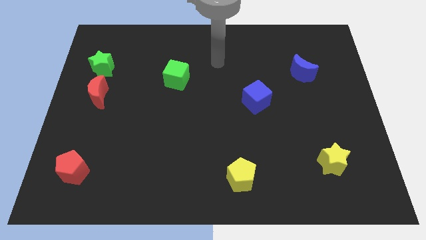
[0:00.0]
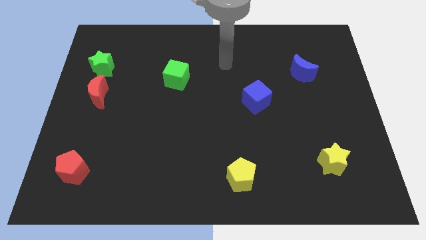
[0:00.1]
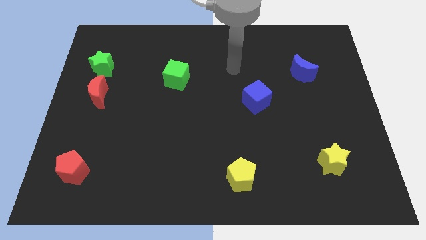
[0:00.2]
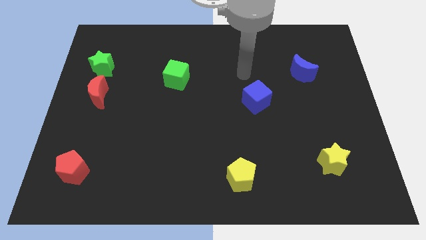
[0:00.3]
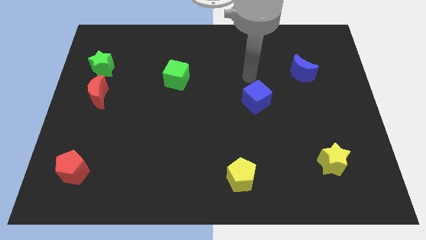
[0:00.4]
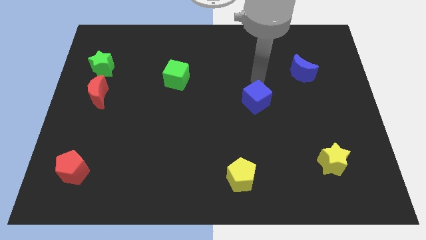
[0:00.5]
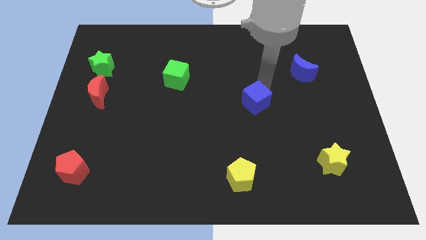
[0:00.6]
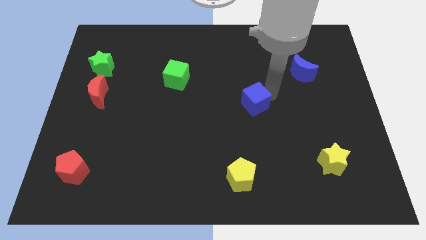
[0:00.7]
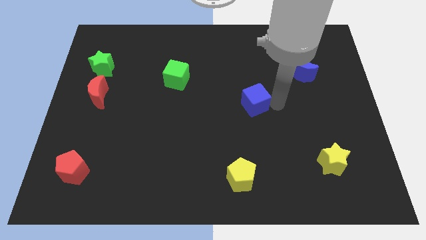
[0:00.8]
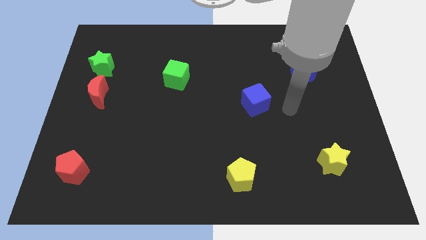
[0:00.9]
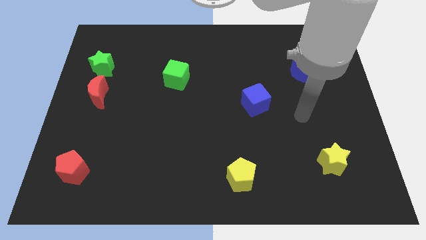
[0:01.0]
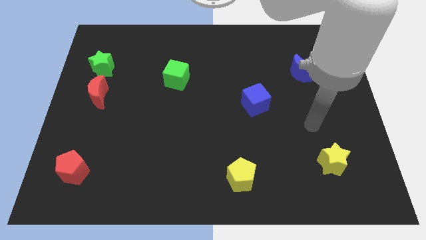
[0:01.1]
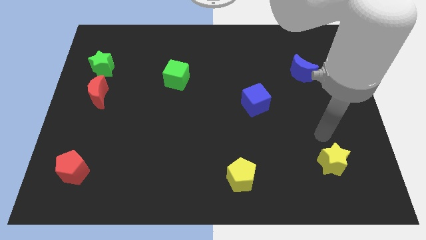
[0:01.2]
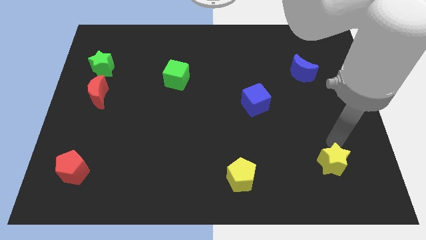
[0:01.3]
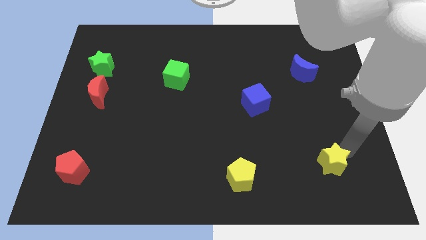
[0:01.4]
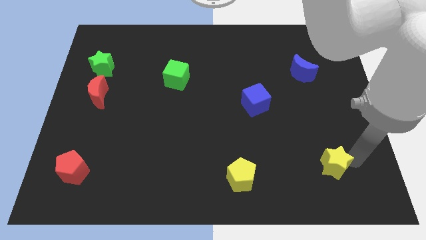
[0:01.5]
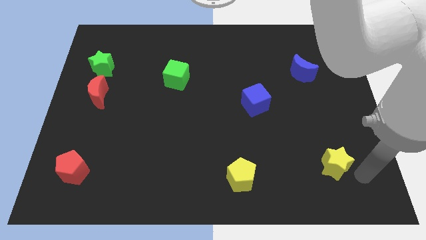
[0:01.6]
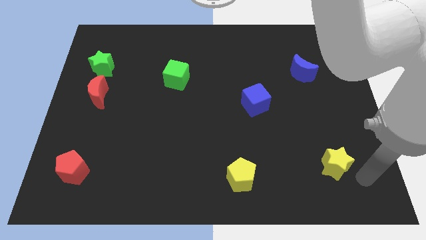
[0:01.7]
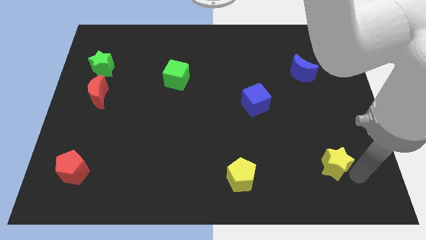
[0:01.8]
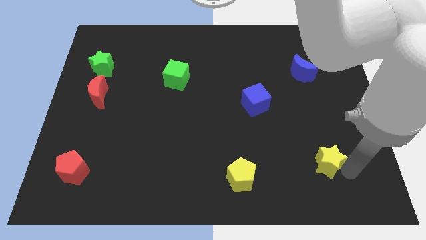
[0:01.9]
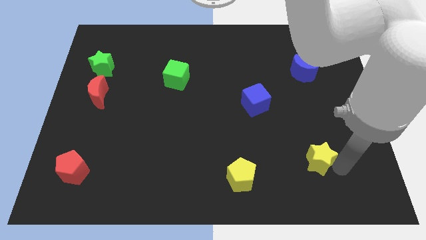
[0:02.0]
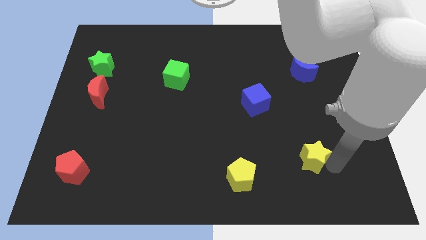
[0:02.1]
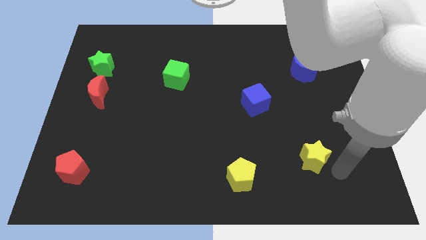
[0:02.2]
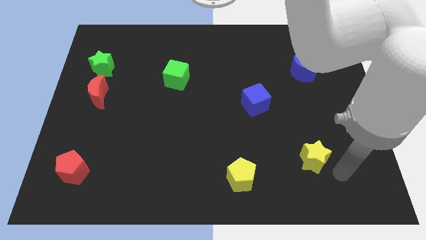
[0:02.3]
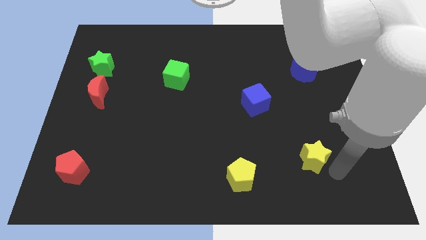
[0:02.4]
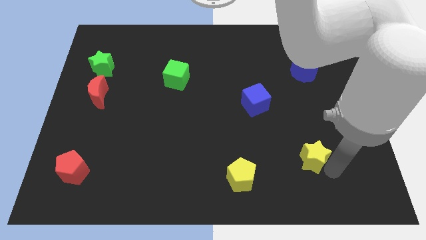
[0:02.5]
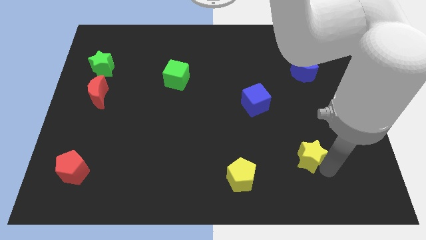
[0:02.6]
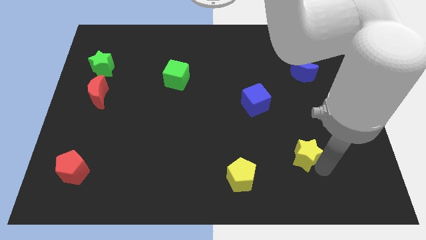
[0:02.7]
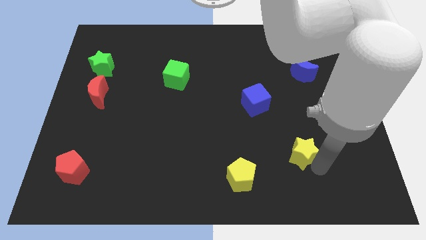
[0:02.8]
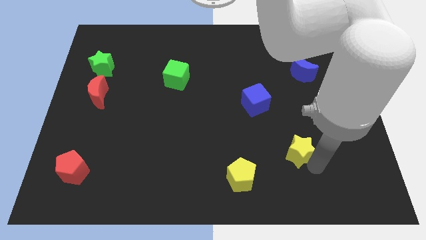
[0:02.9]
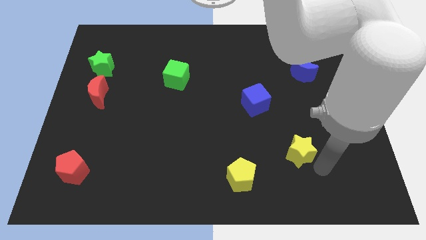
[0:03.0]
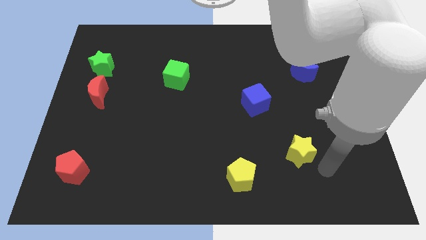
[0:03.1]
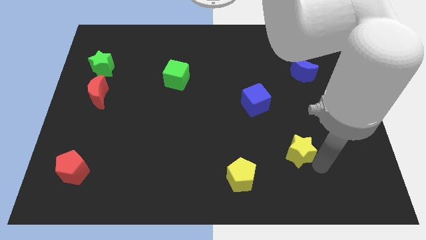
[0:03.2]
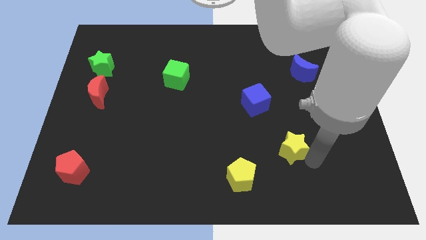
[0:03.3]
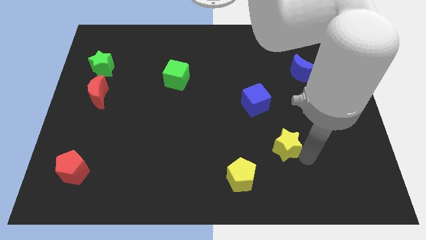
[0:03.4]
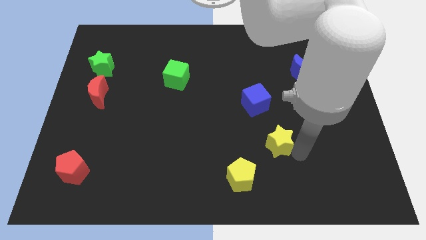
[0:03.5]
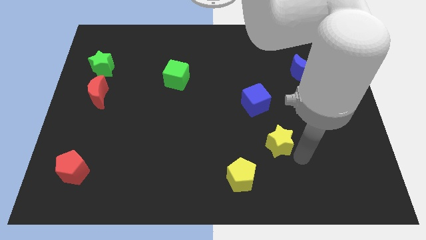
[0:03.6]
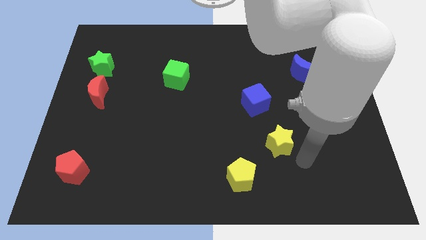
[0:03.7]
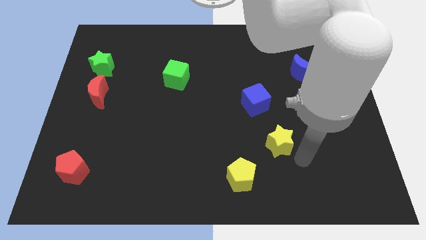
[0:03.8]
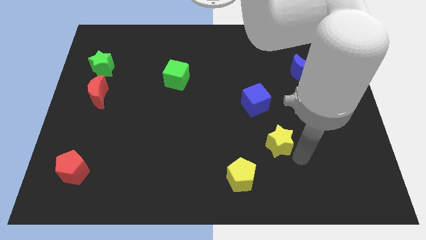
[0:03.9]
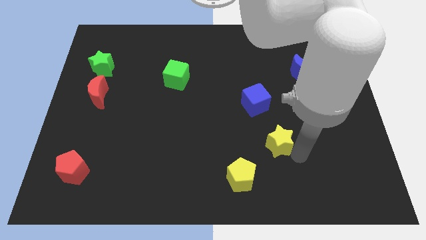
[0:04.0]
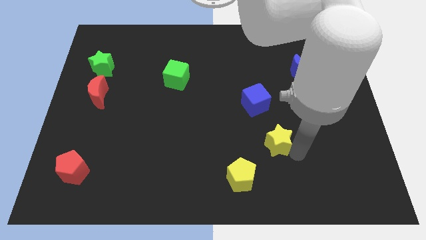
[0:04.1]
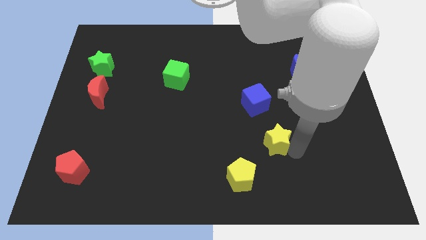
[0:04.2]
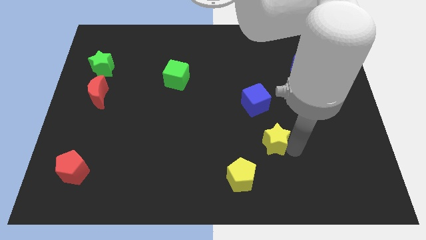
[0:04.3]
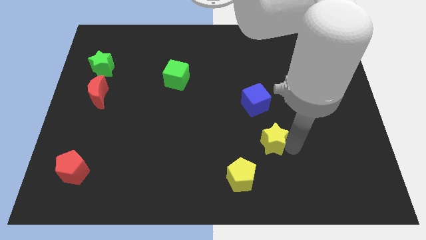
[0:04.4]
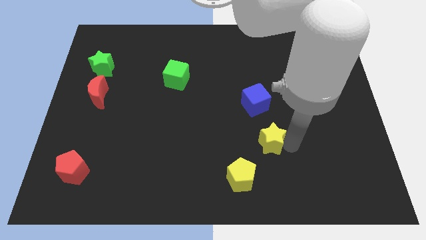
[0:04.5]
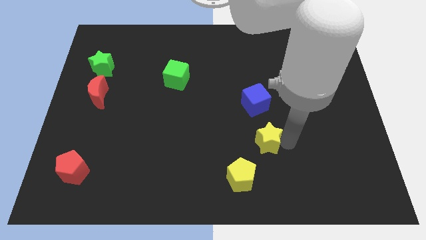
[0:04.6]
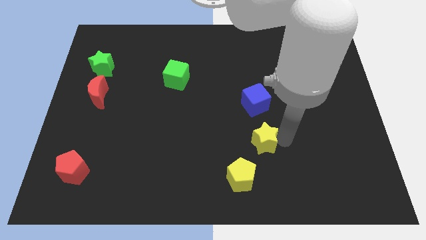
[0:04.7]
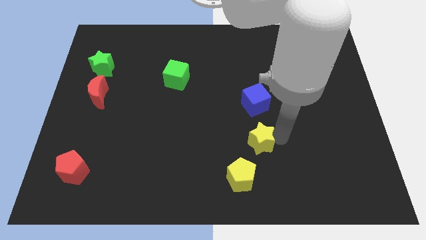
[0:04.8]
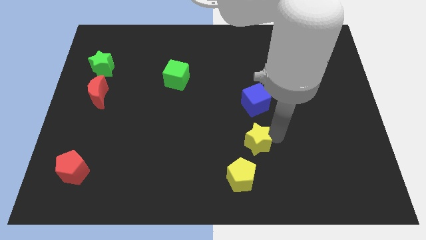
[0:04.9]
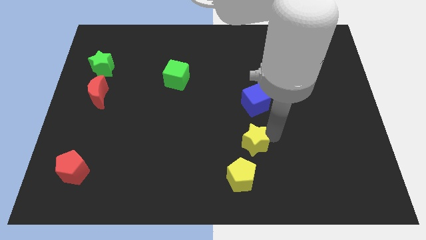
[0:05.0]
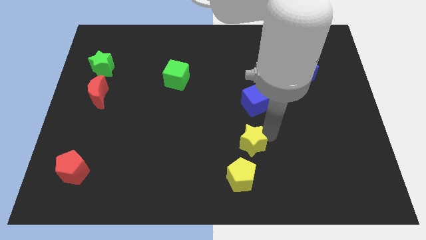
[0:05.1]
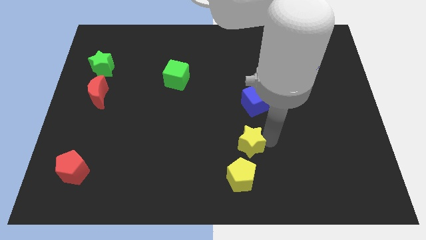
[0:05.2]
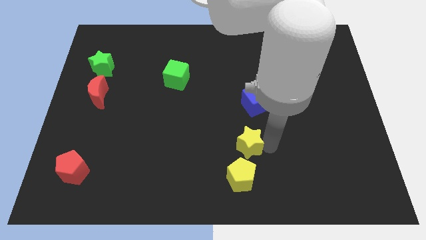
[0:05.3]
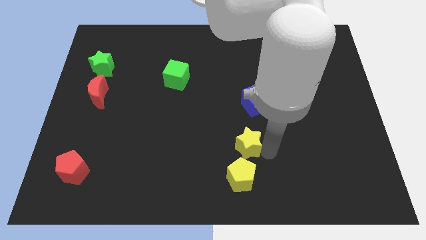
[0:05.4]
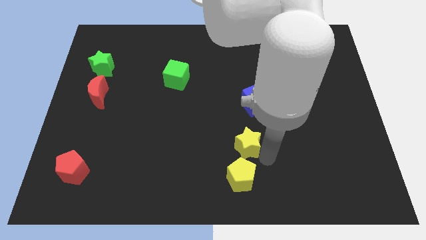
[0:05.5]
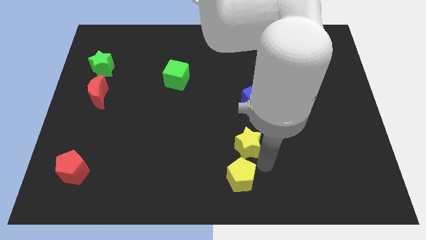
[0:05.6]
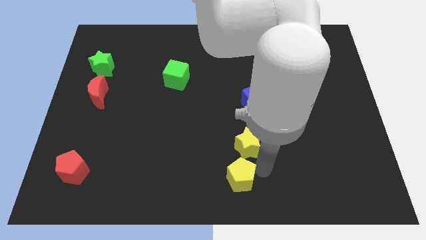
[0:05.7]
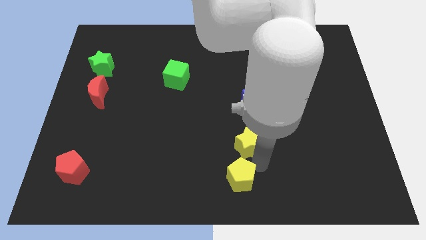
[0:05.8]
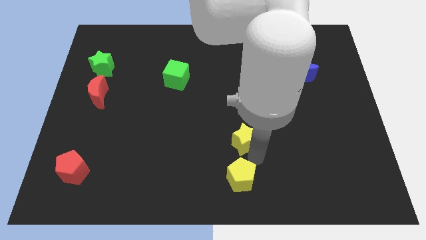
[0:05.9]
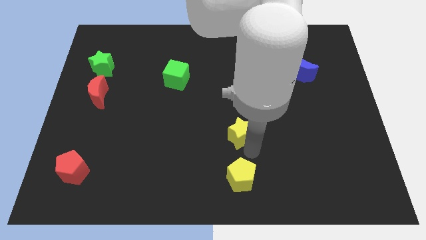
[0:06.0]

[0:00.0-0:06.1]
move the yellow star to the bottom left side of the blue cube

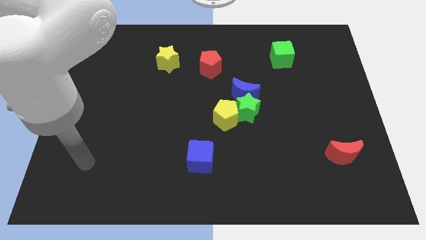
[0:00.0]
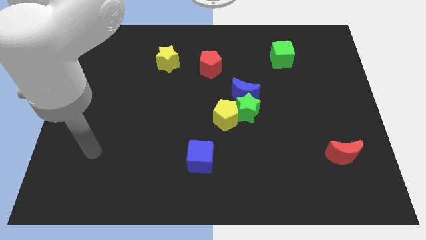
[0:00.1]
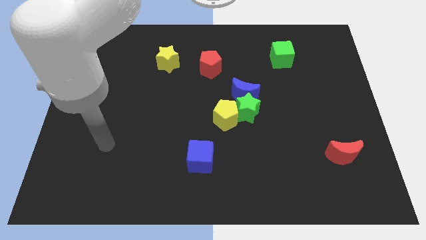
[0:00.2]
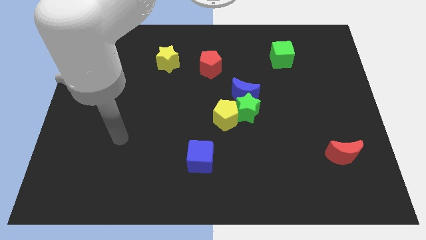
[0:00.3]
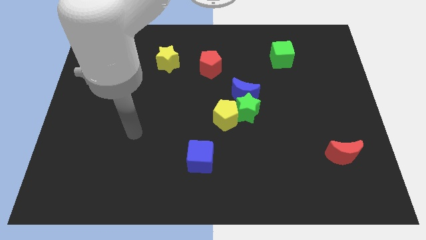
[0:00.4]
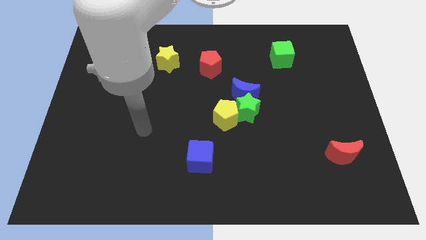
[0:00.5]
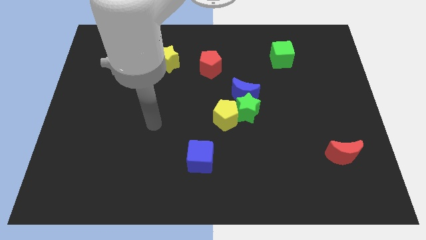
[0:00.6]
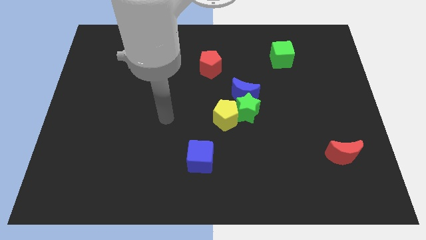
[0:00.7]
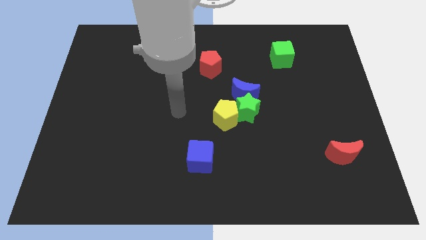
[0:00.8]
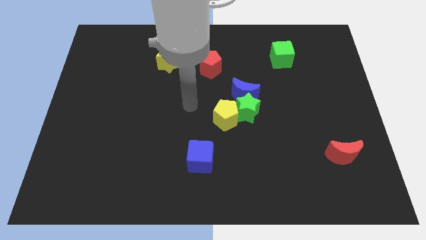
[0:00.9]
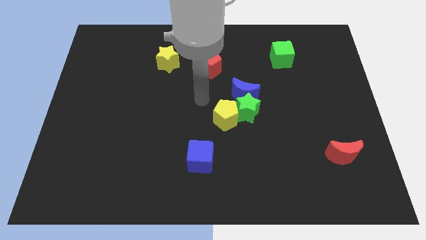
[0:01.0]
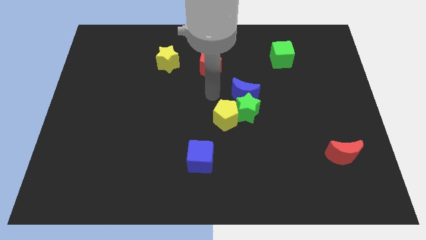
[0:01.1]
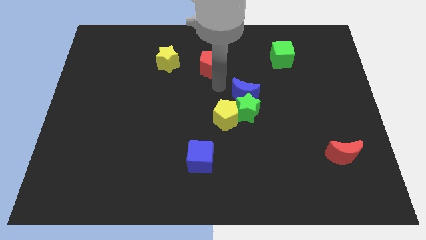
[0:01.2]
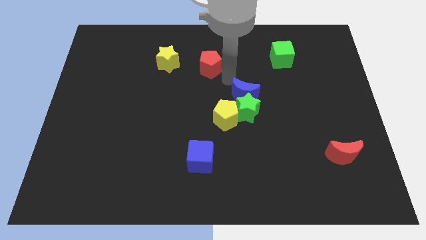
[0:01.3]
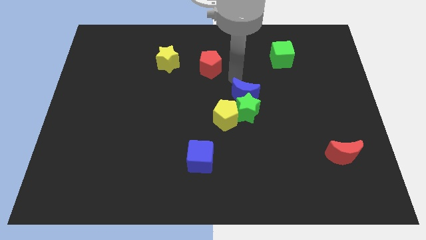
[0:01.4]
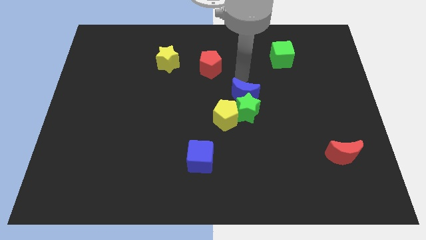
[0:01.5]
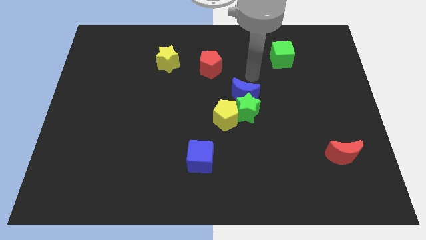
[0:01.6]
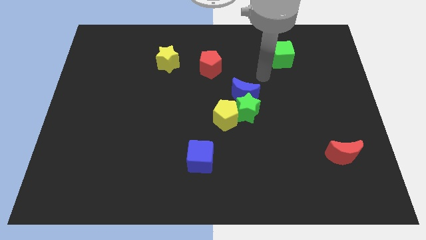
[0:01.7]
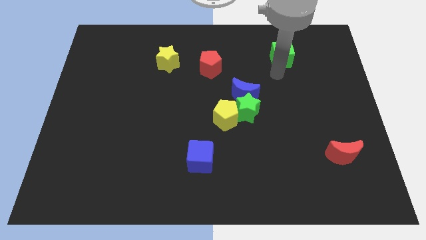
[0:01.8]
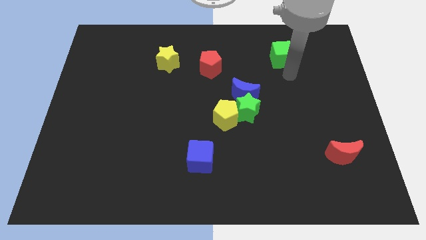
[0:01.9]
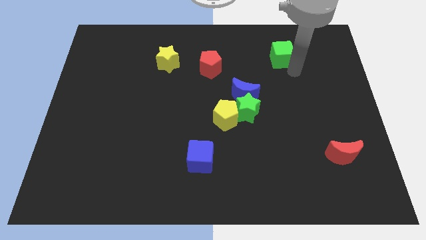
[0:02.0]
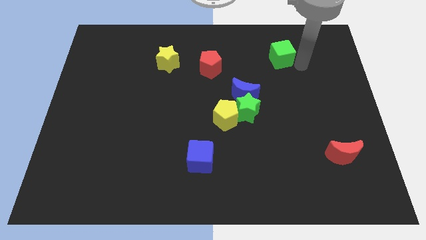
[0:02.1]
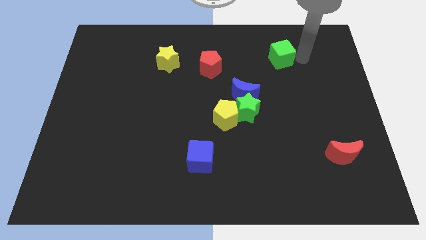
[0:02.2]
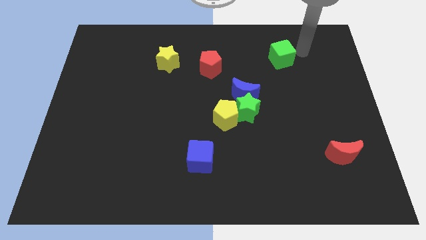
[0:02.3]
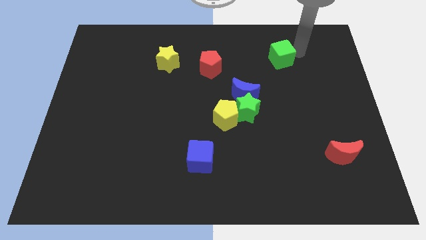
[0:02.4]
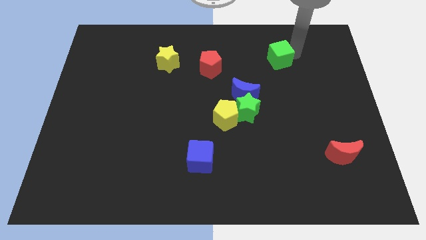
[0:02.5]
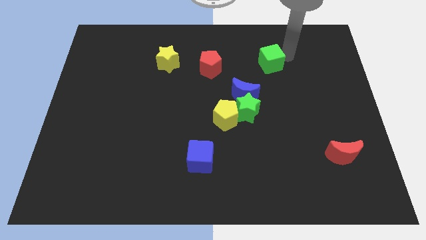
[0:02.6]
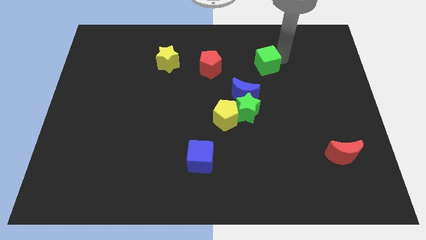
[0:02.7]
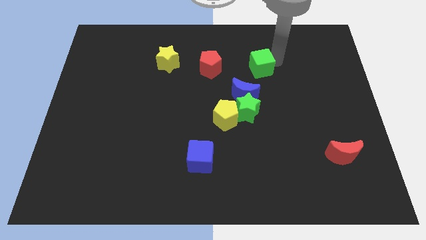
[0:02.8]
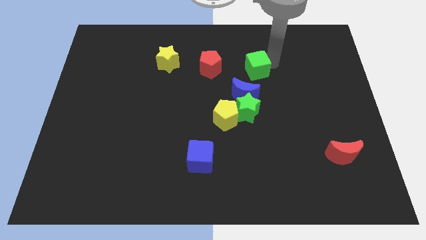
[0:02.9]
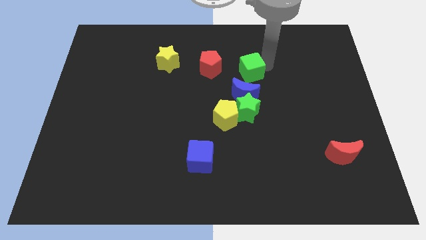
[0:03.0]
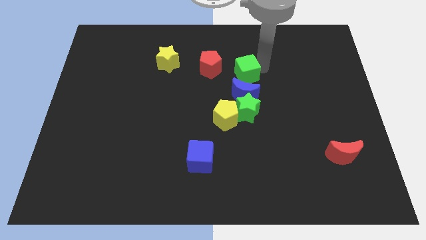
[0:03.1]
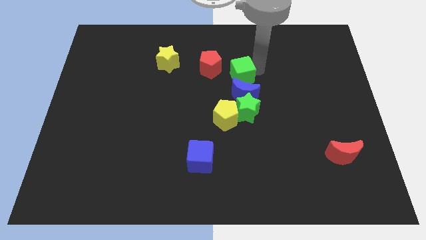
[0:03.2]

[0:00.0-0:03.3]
push the green cube diagonally up and to the left of the blue moon
